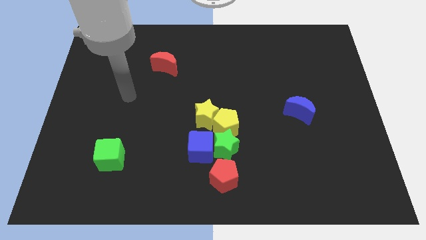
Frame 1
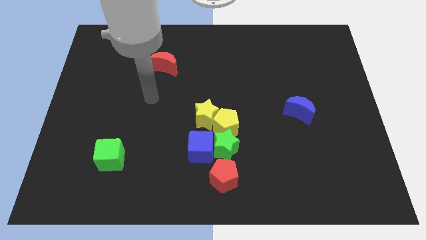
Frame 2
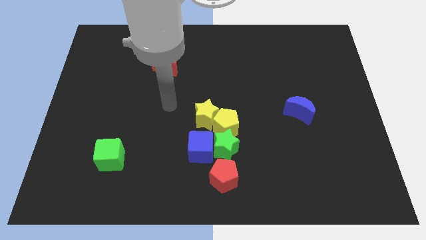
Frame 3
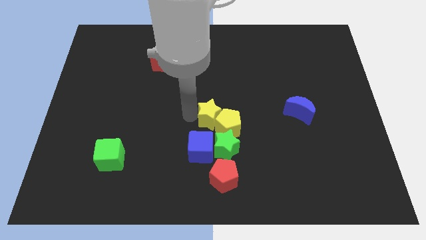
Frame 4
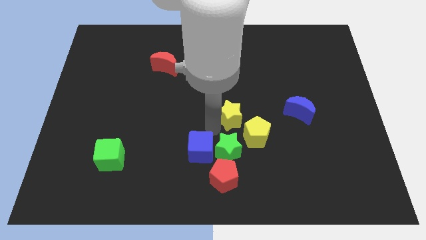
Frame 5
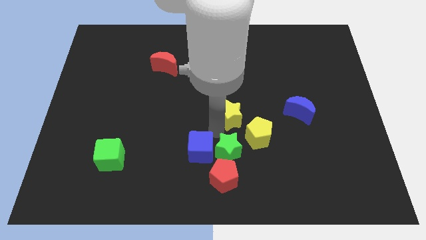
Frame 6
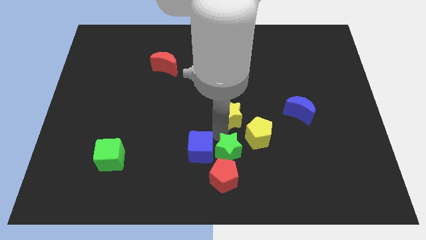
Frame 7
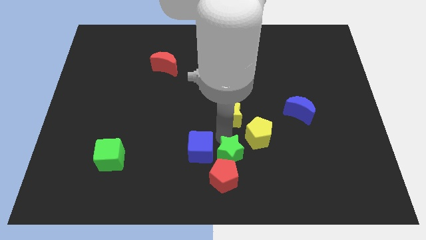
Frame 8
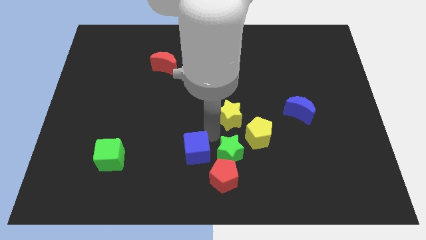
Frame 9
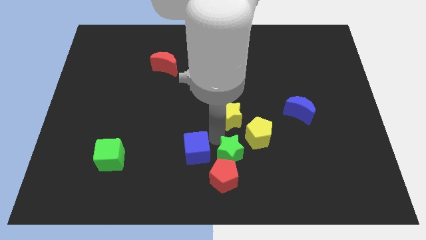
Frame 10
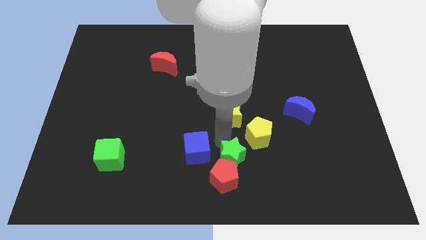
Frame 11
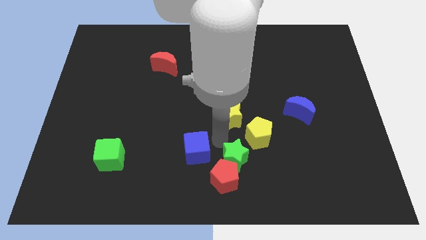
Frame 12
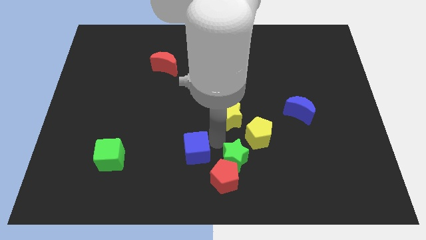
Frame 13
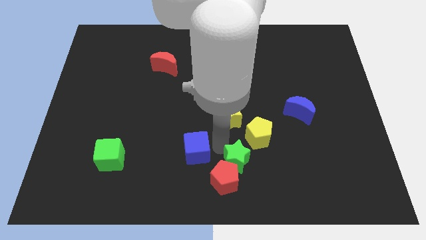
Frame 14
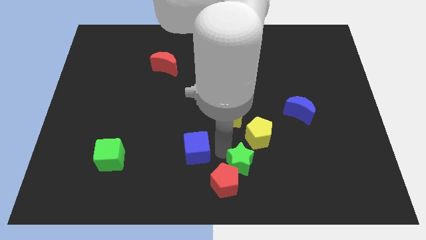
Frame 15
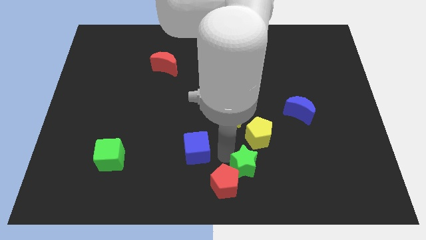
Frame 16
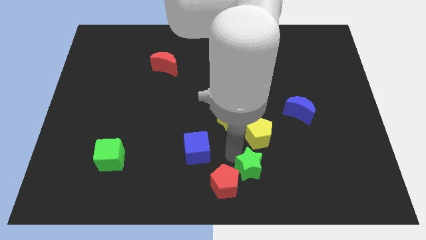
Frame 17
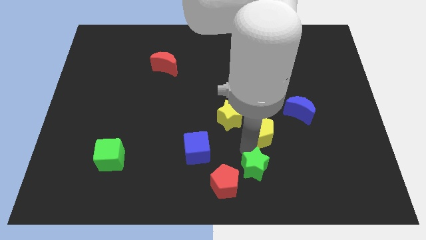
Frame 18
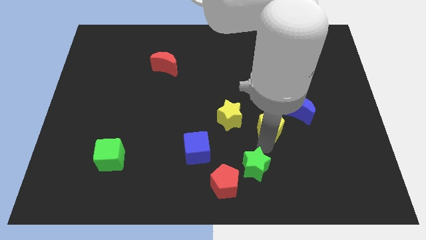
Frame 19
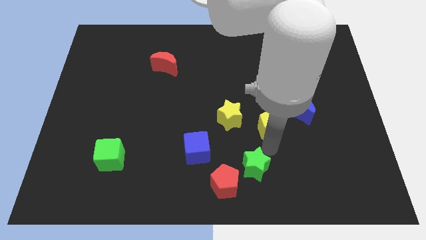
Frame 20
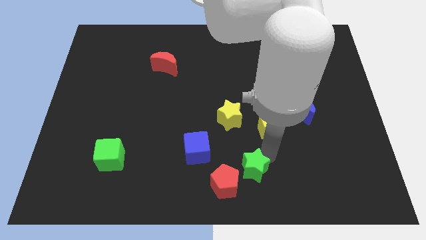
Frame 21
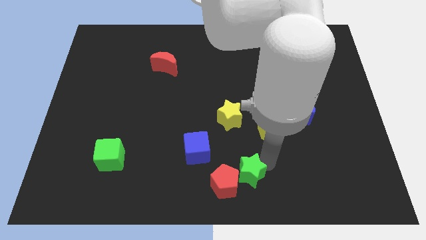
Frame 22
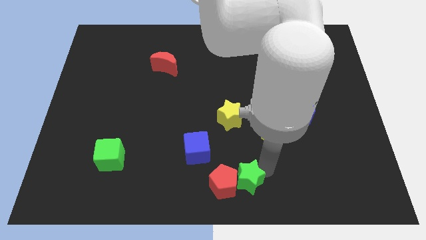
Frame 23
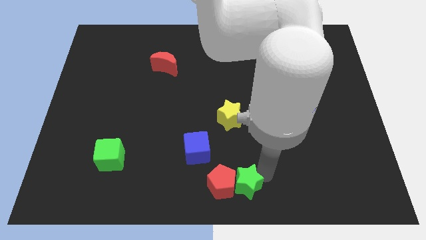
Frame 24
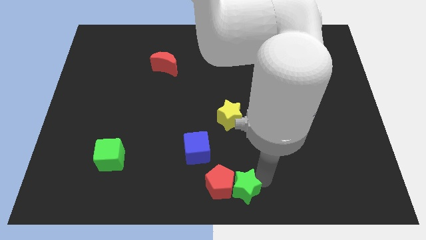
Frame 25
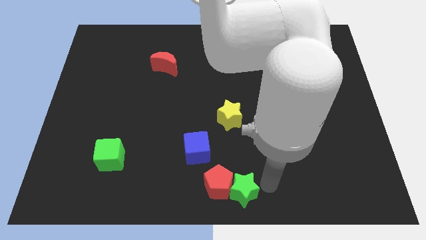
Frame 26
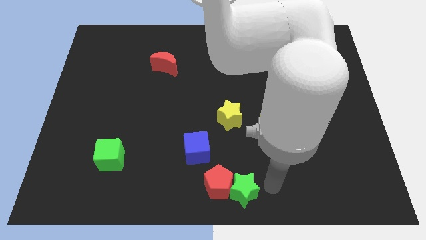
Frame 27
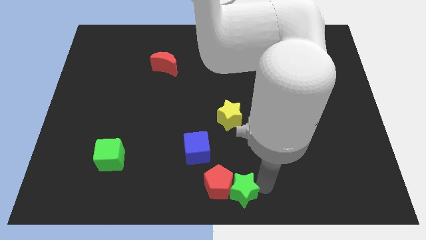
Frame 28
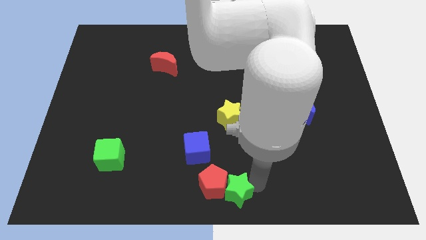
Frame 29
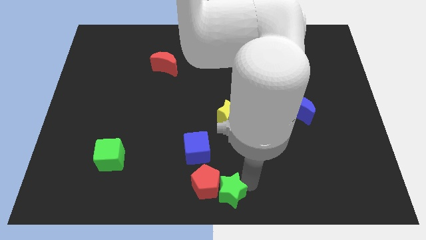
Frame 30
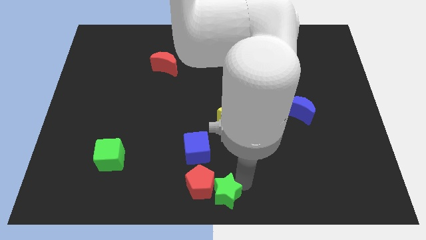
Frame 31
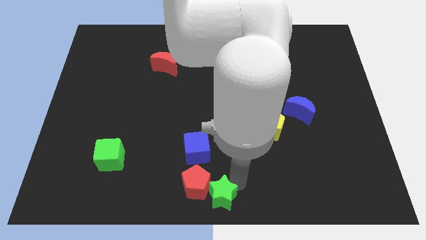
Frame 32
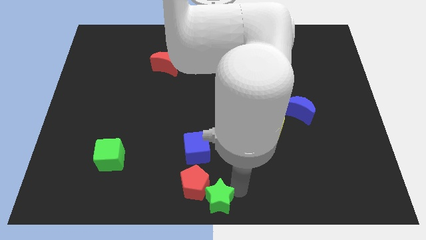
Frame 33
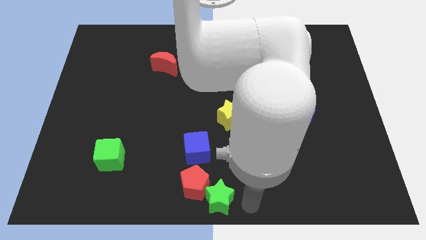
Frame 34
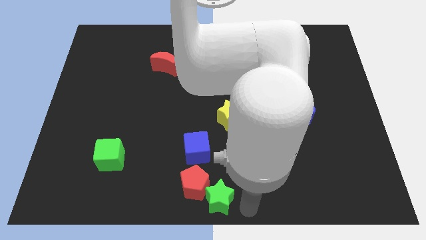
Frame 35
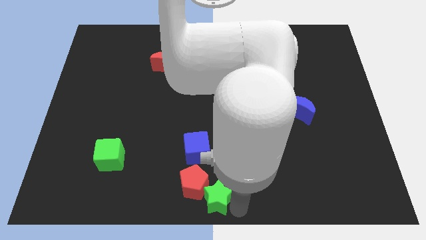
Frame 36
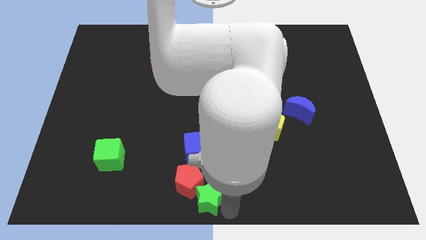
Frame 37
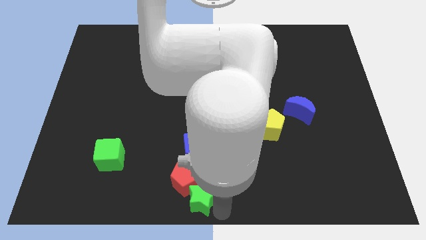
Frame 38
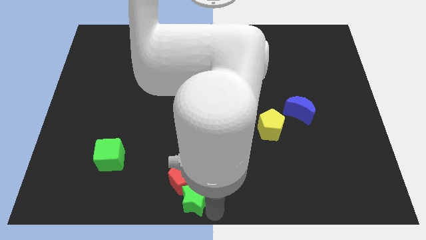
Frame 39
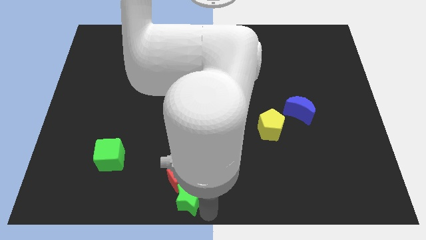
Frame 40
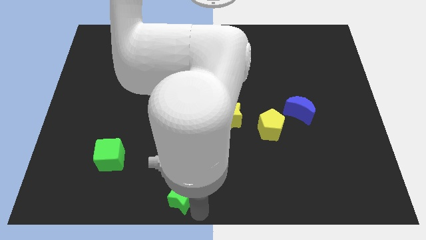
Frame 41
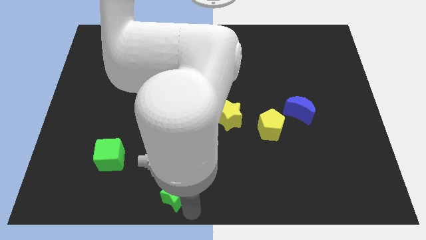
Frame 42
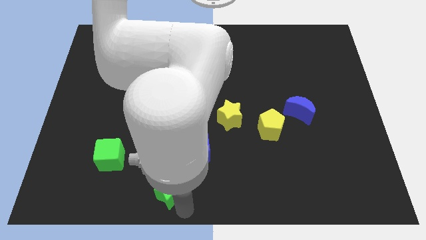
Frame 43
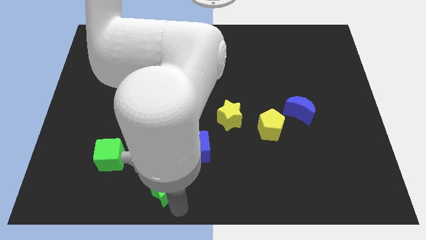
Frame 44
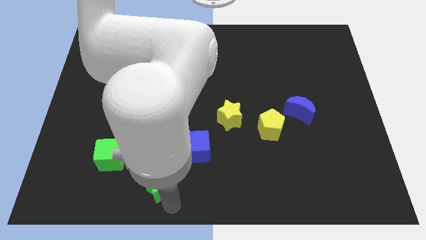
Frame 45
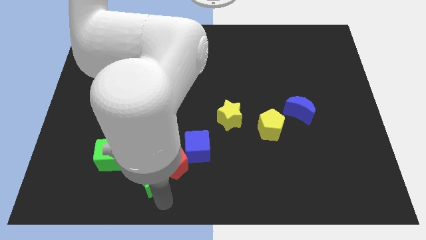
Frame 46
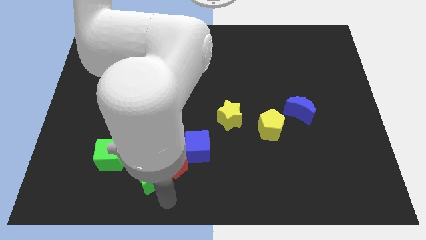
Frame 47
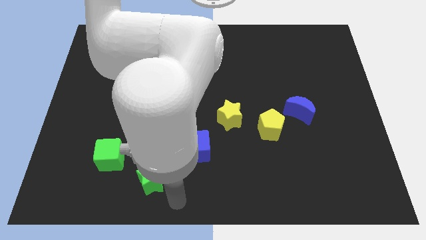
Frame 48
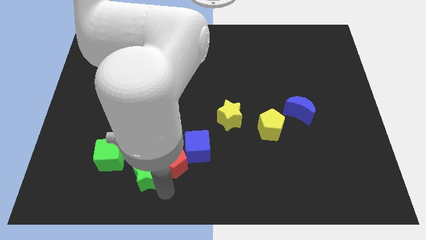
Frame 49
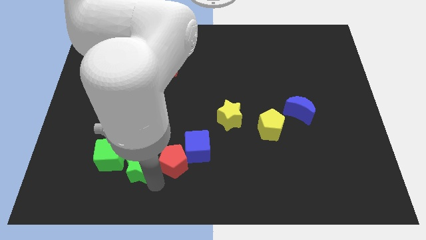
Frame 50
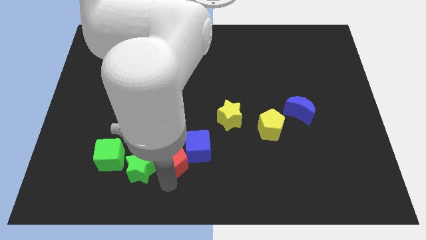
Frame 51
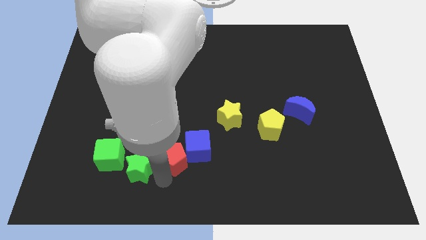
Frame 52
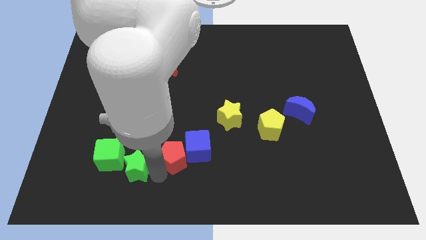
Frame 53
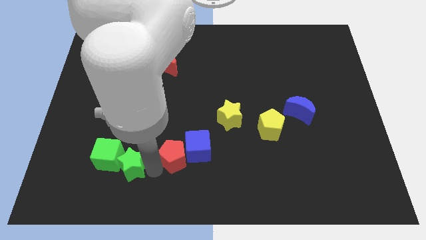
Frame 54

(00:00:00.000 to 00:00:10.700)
move the green star next to the green cube

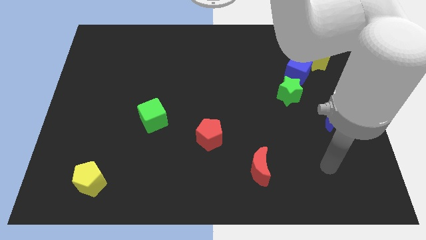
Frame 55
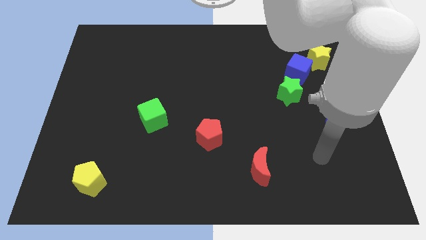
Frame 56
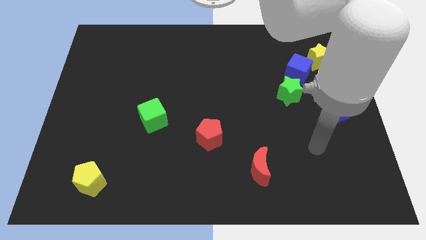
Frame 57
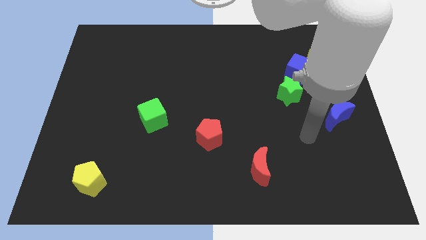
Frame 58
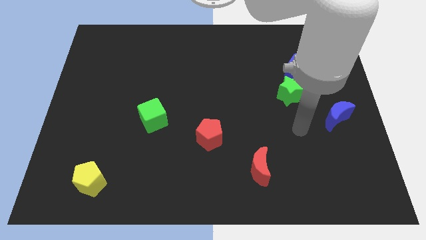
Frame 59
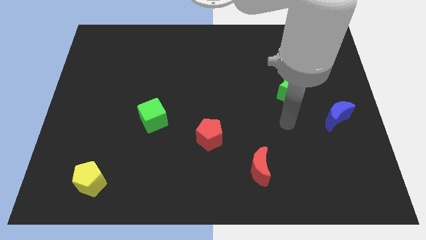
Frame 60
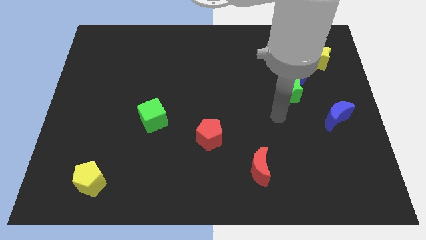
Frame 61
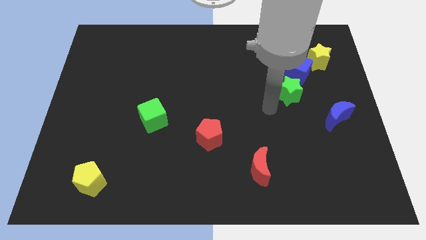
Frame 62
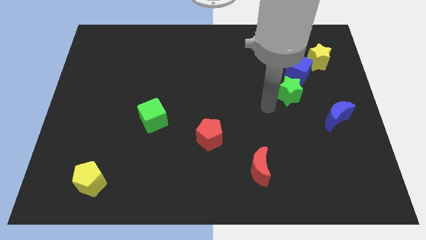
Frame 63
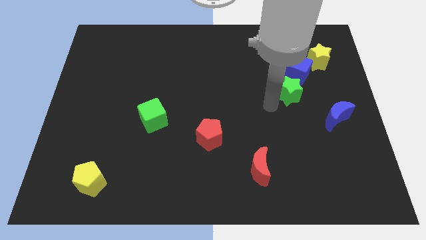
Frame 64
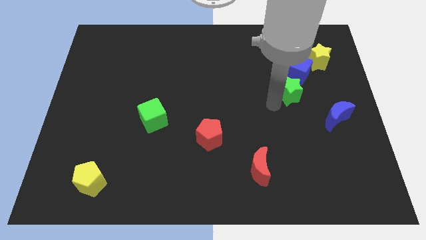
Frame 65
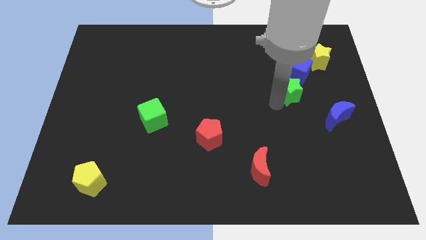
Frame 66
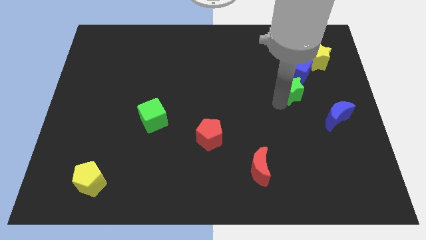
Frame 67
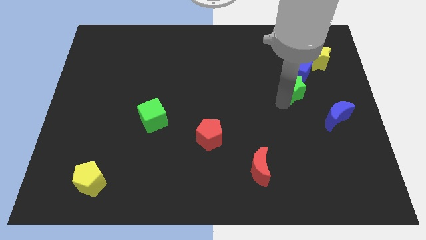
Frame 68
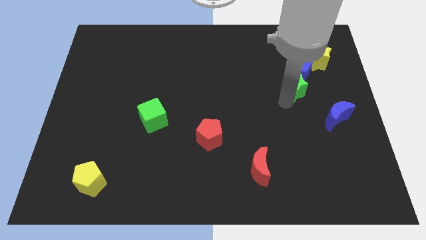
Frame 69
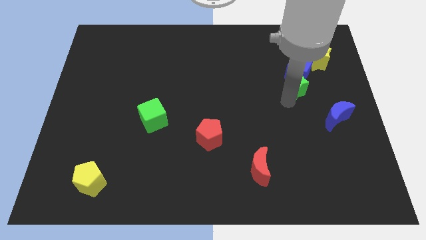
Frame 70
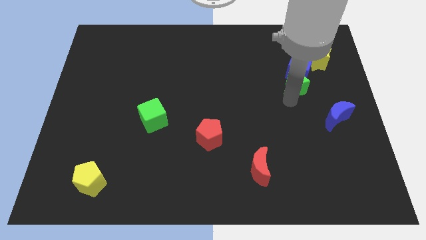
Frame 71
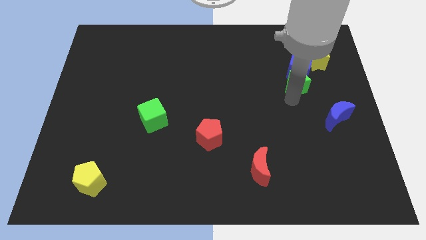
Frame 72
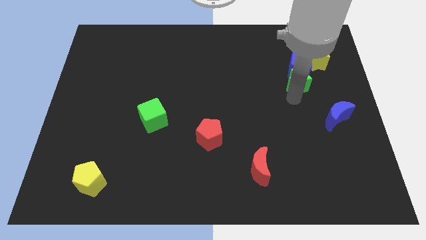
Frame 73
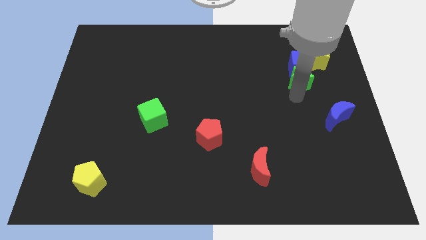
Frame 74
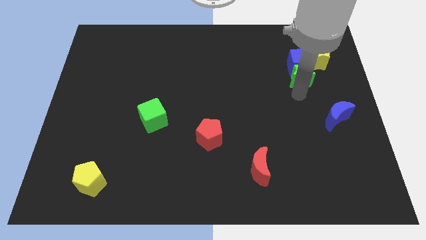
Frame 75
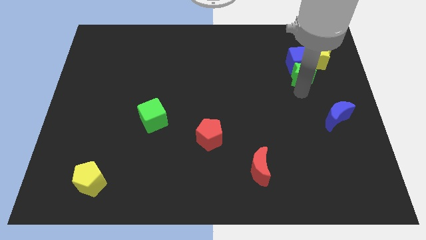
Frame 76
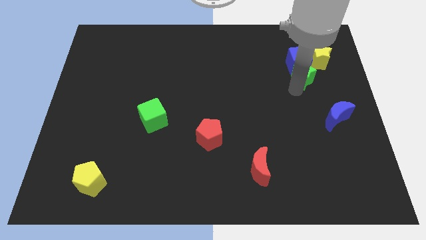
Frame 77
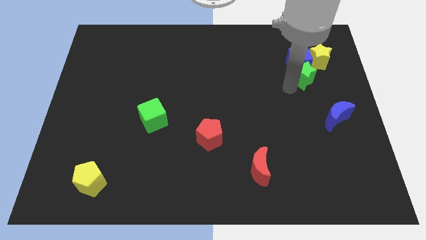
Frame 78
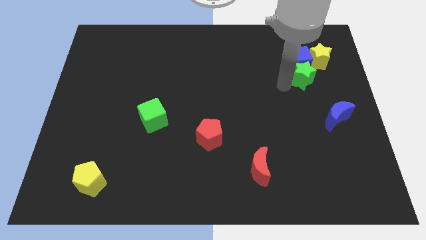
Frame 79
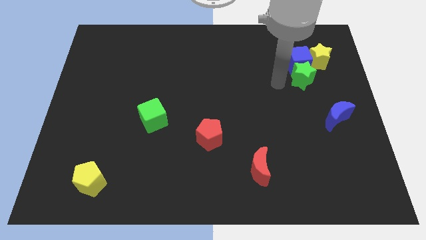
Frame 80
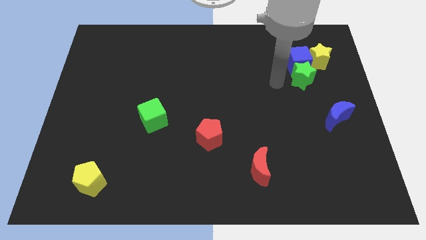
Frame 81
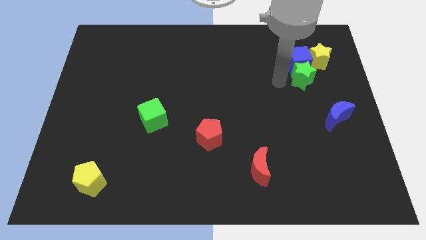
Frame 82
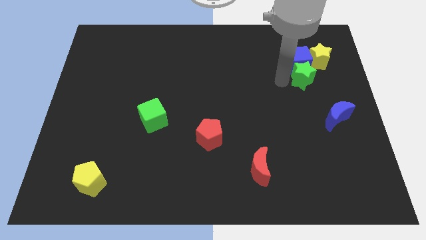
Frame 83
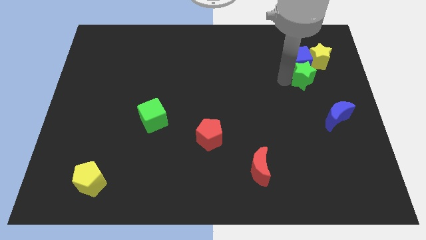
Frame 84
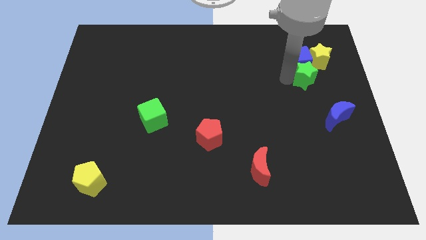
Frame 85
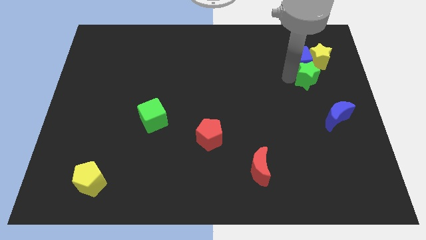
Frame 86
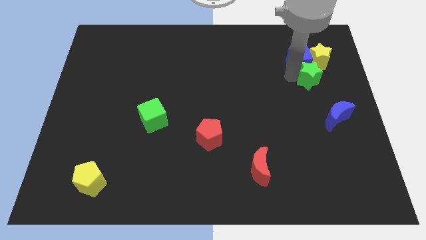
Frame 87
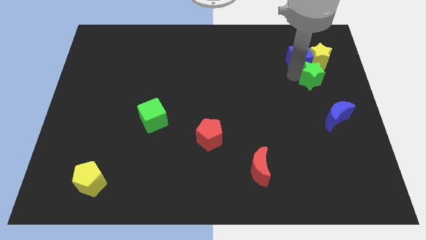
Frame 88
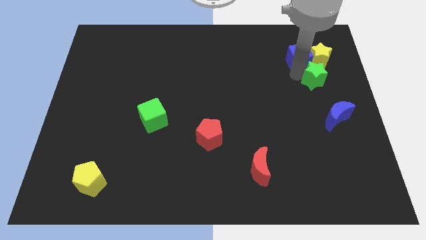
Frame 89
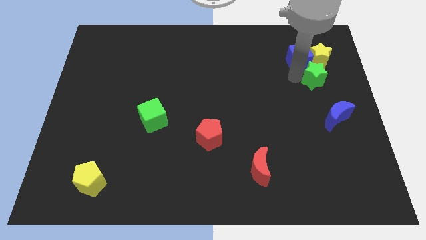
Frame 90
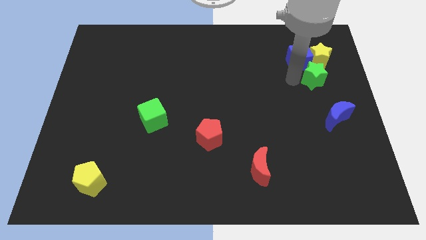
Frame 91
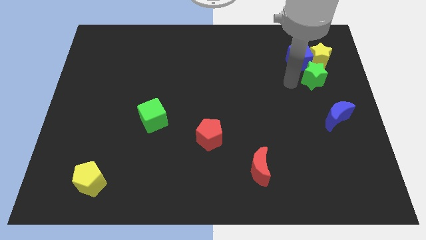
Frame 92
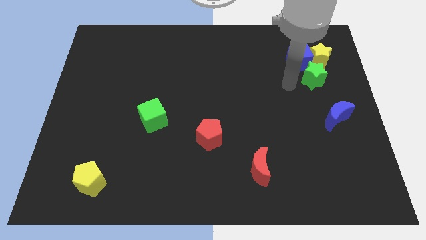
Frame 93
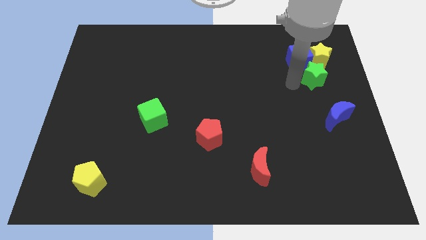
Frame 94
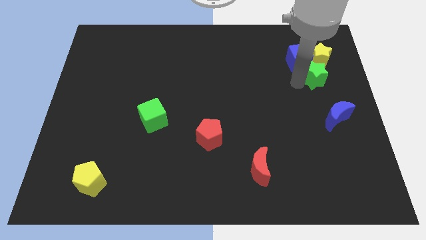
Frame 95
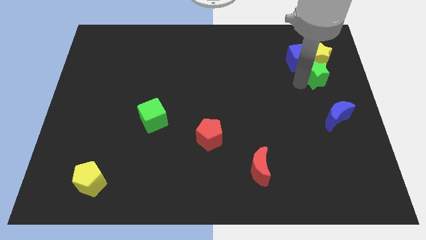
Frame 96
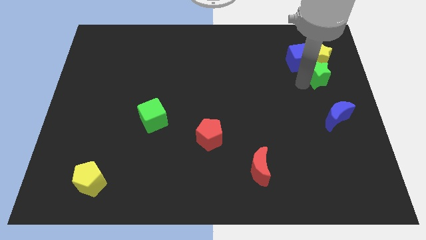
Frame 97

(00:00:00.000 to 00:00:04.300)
put the green star towards the yellow star
